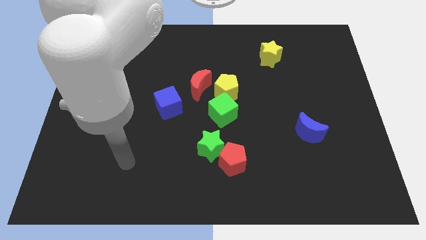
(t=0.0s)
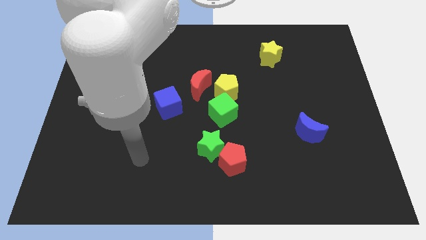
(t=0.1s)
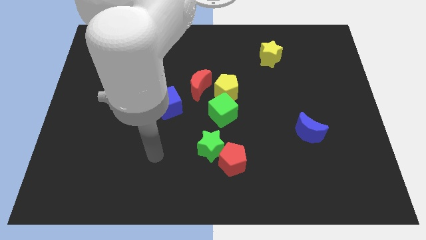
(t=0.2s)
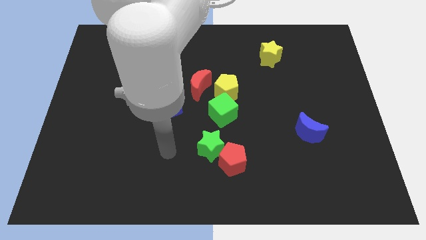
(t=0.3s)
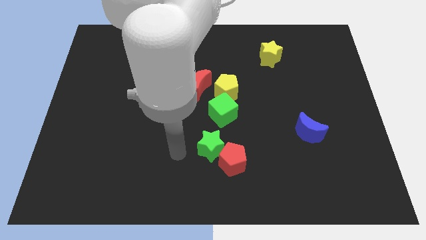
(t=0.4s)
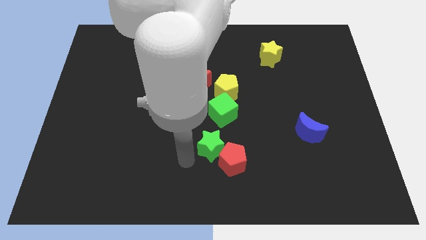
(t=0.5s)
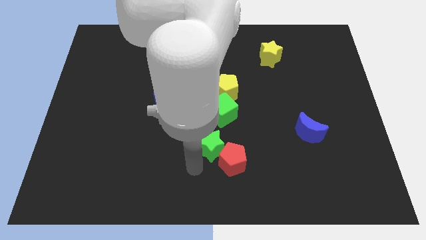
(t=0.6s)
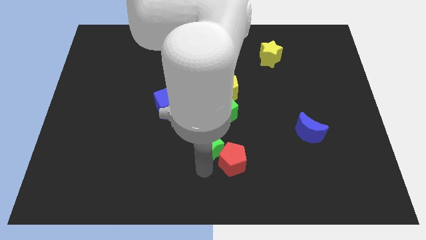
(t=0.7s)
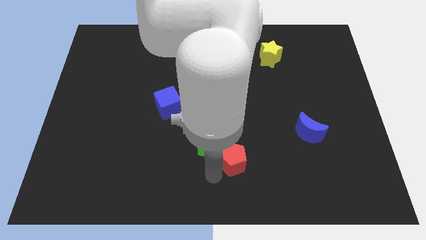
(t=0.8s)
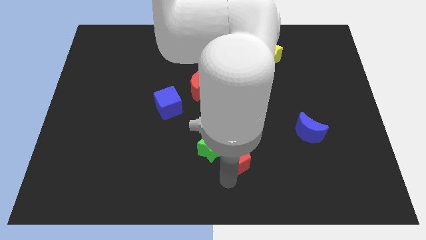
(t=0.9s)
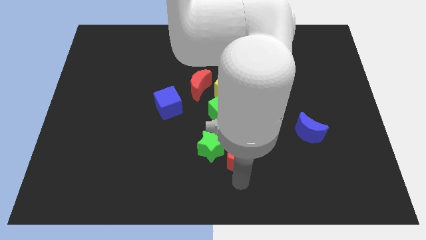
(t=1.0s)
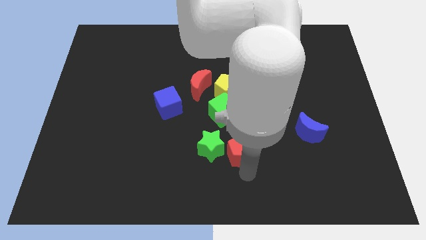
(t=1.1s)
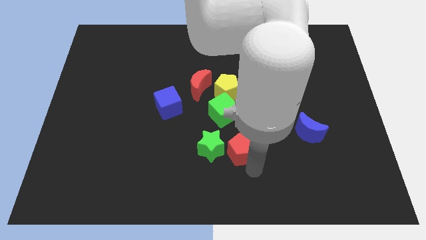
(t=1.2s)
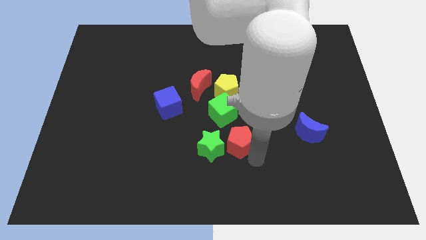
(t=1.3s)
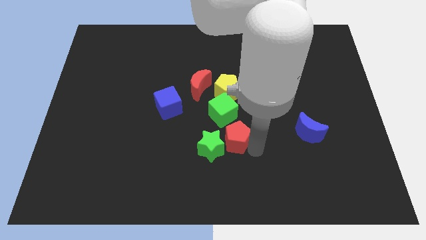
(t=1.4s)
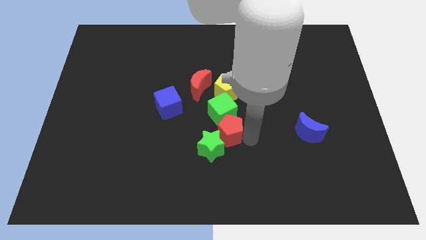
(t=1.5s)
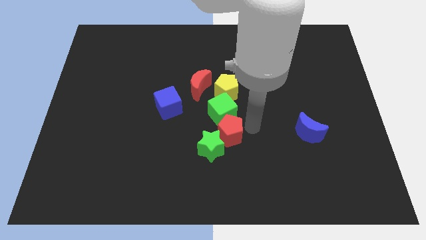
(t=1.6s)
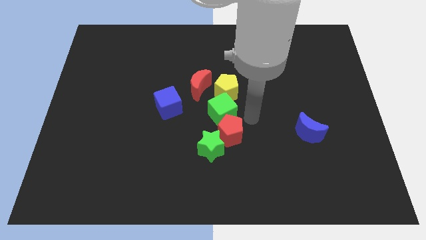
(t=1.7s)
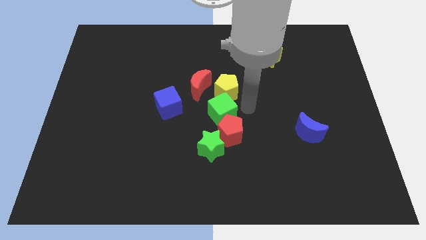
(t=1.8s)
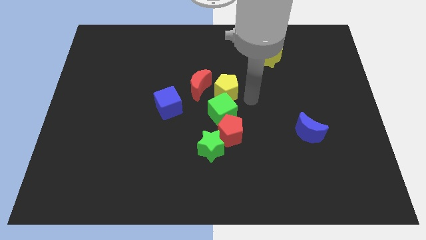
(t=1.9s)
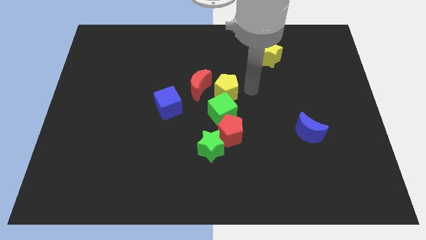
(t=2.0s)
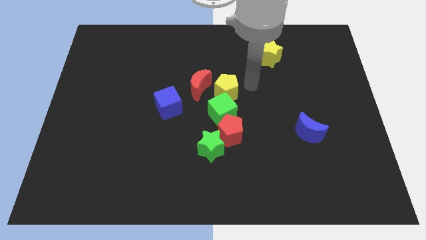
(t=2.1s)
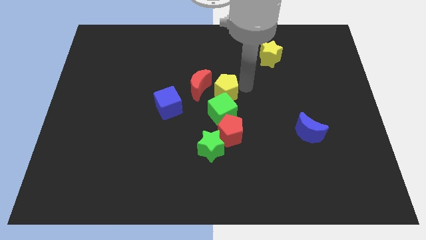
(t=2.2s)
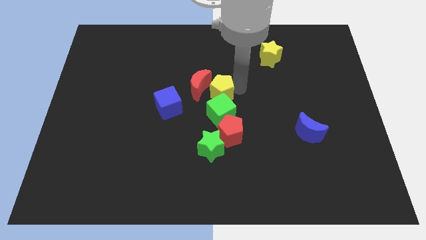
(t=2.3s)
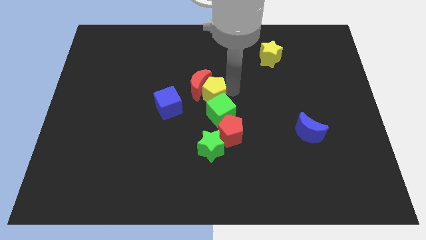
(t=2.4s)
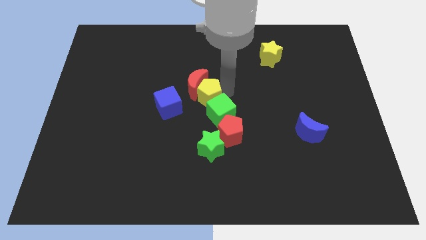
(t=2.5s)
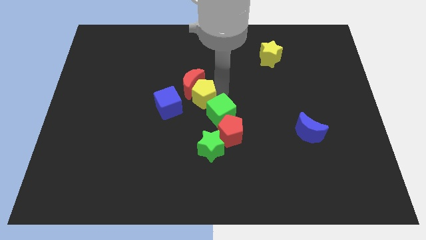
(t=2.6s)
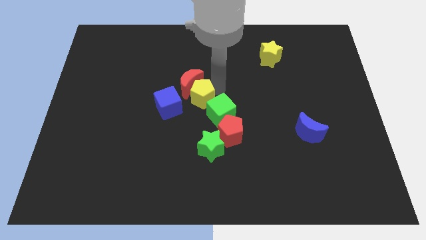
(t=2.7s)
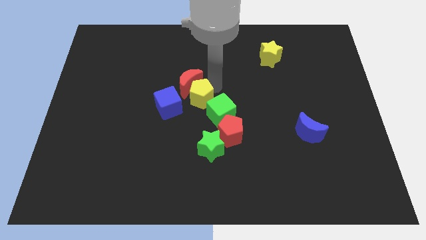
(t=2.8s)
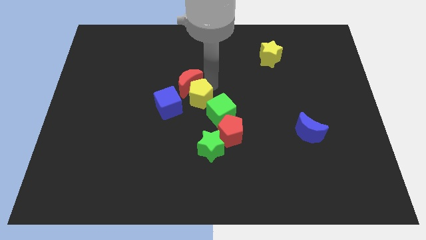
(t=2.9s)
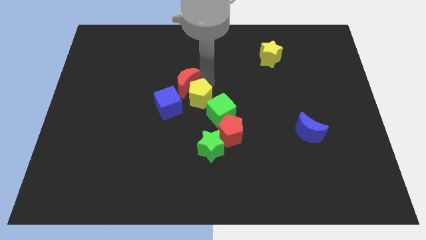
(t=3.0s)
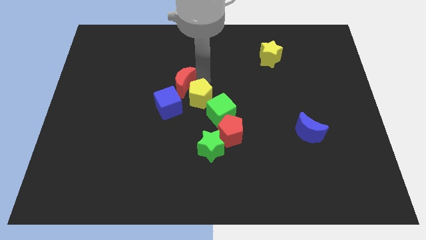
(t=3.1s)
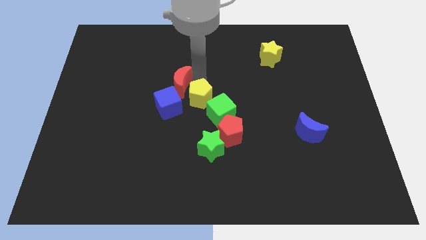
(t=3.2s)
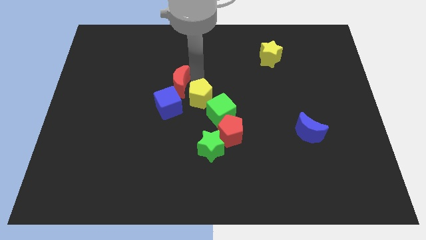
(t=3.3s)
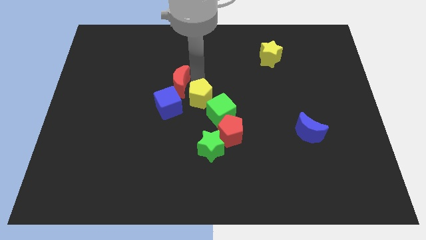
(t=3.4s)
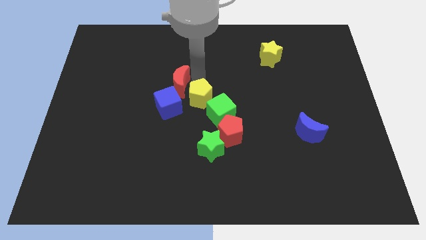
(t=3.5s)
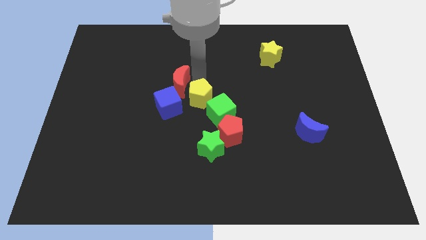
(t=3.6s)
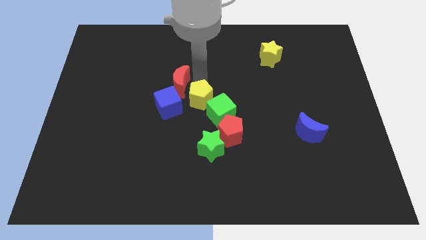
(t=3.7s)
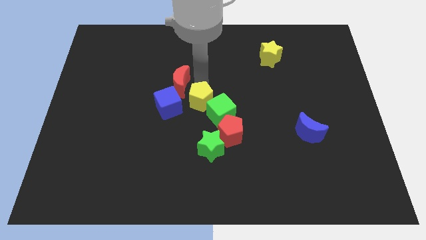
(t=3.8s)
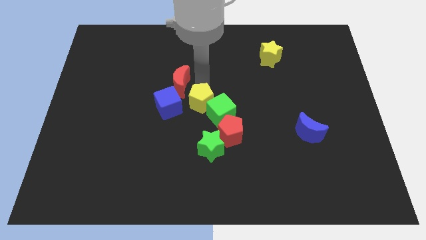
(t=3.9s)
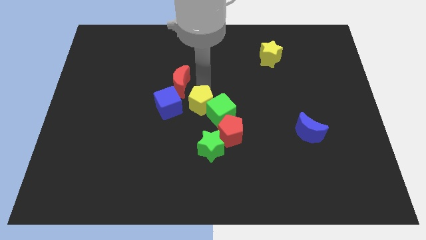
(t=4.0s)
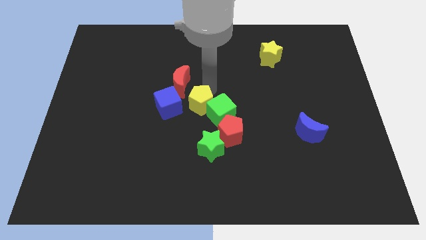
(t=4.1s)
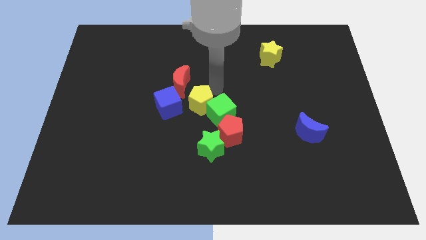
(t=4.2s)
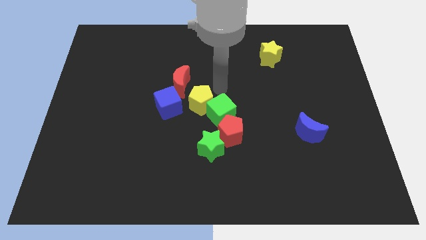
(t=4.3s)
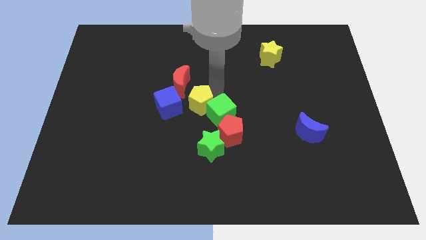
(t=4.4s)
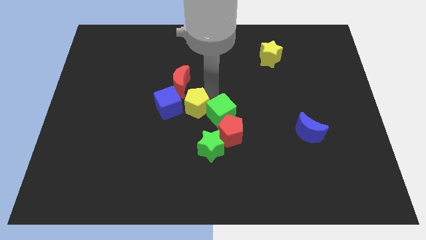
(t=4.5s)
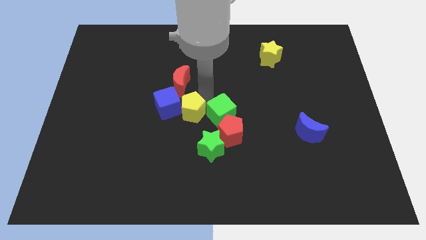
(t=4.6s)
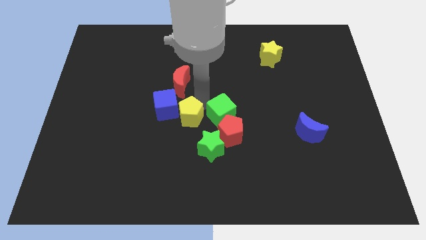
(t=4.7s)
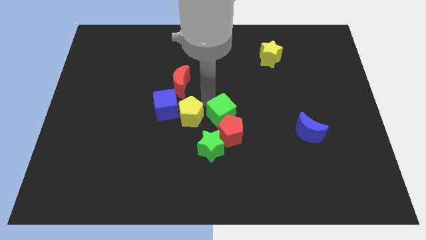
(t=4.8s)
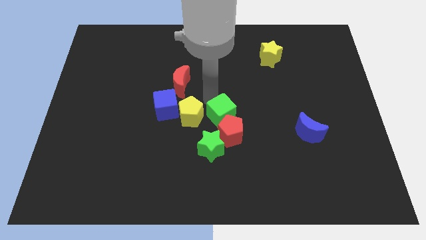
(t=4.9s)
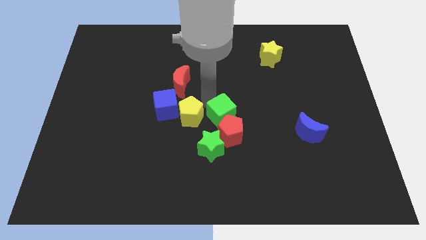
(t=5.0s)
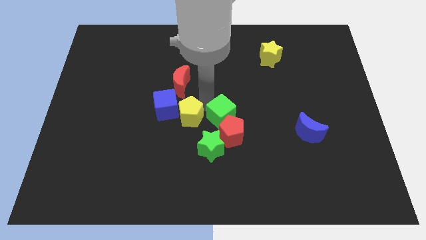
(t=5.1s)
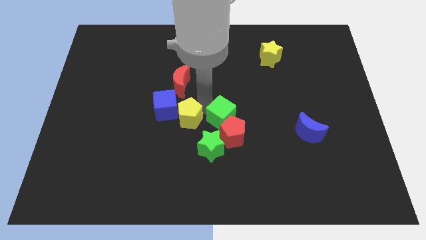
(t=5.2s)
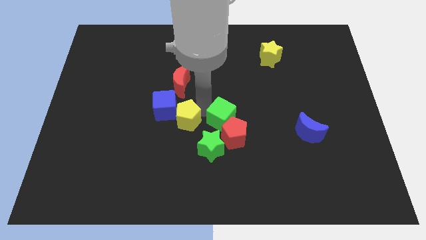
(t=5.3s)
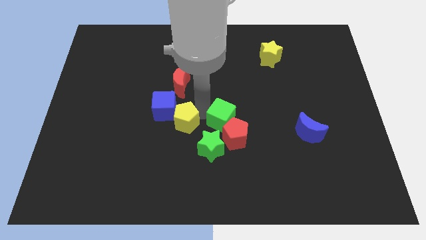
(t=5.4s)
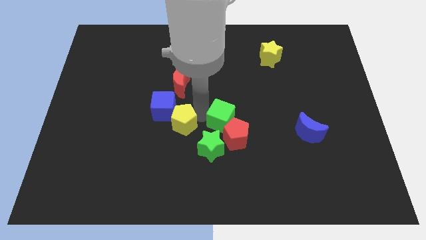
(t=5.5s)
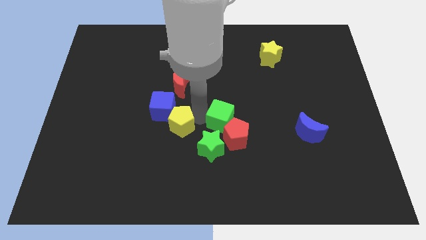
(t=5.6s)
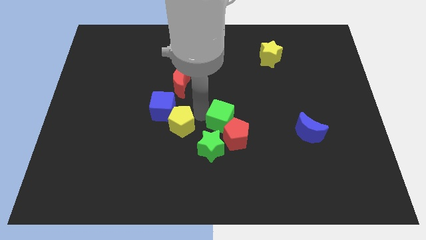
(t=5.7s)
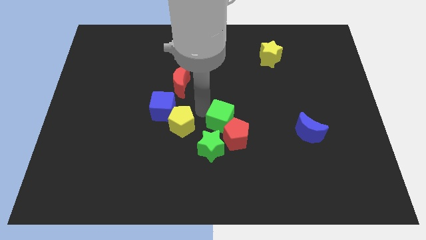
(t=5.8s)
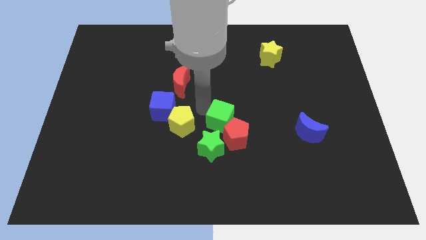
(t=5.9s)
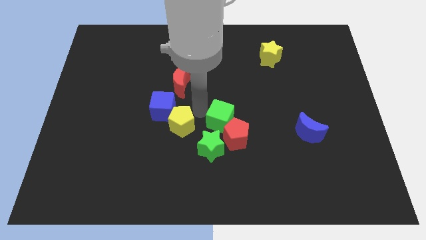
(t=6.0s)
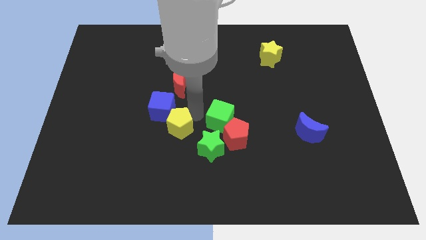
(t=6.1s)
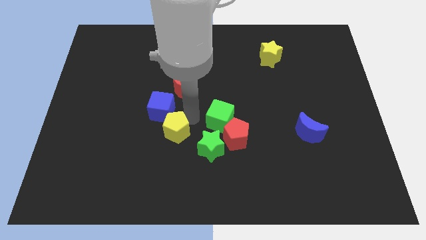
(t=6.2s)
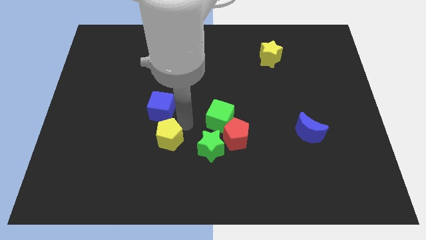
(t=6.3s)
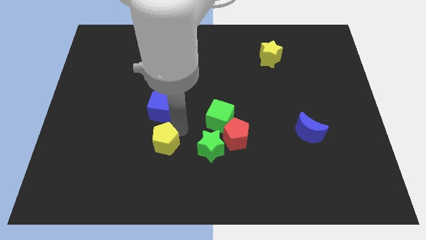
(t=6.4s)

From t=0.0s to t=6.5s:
slide the yellow pentagon downwards and then to the left

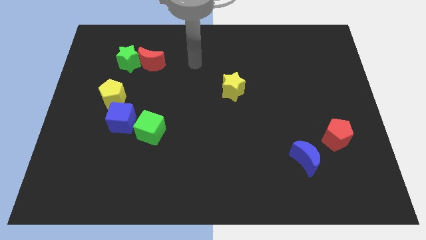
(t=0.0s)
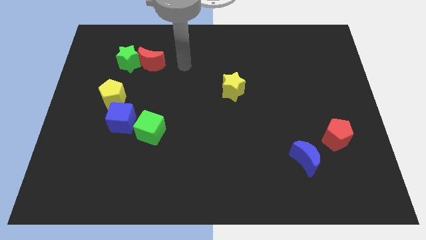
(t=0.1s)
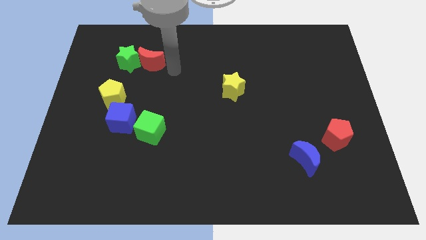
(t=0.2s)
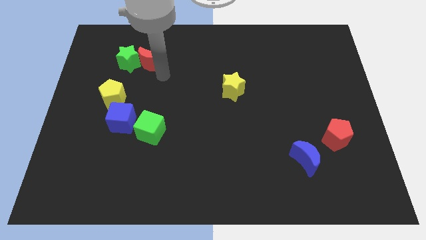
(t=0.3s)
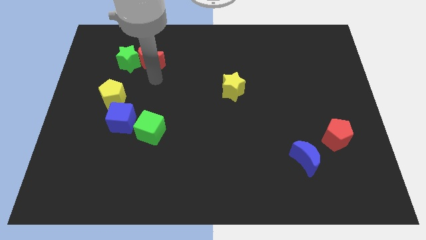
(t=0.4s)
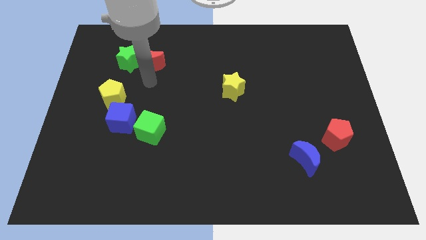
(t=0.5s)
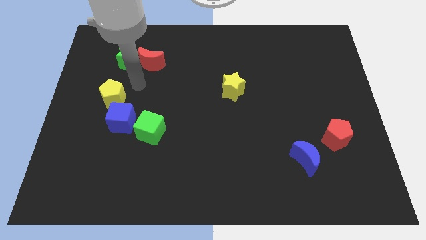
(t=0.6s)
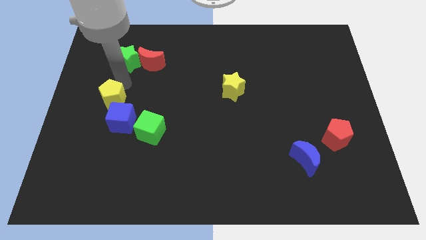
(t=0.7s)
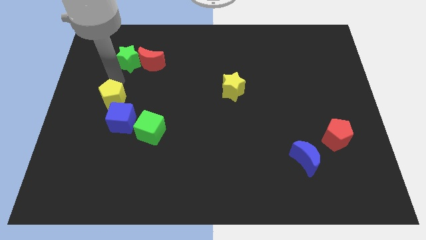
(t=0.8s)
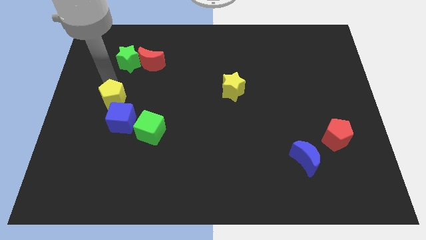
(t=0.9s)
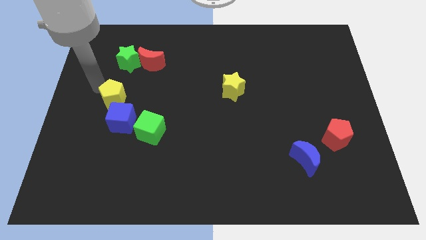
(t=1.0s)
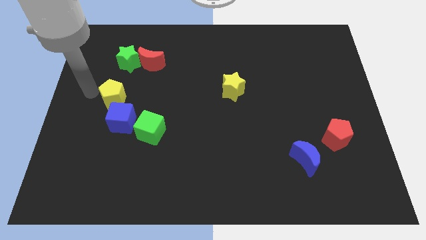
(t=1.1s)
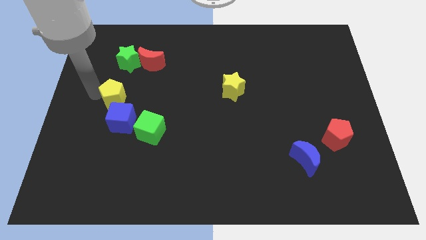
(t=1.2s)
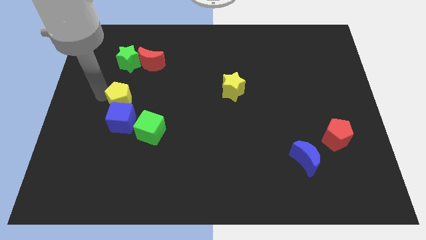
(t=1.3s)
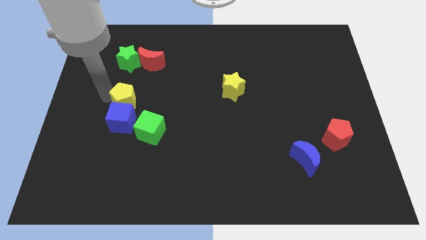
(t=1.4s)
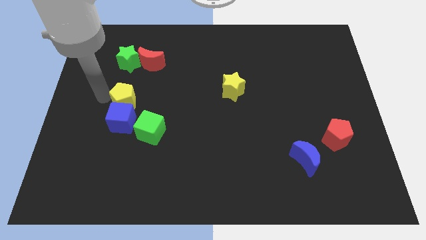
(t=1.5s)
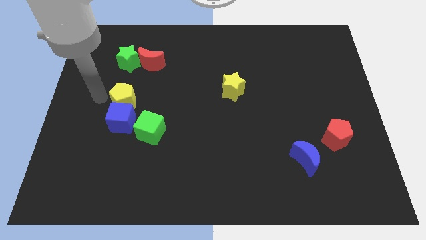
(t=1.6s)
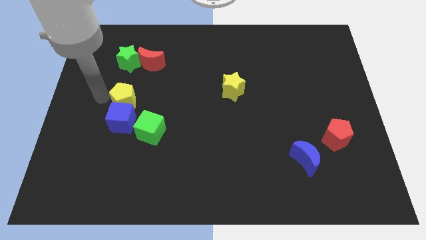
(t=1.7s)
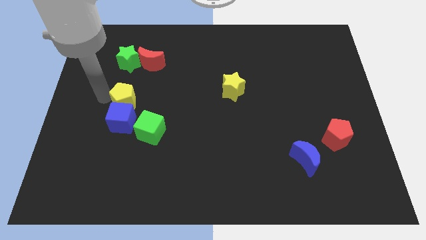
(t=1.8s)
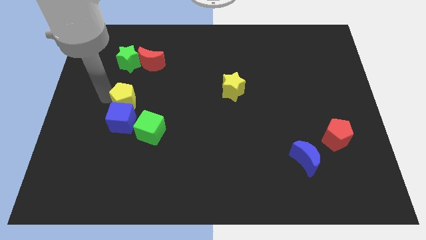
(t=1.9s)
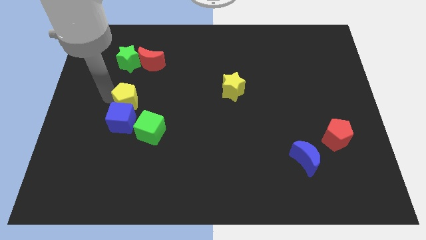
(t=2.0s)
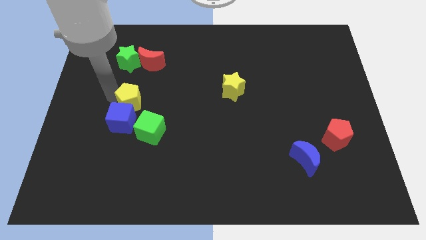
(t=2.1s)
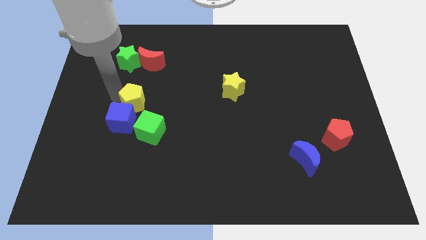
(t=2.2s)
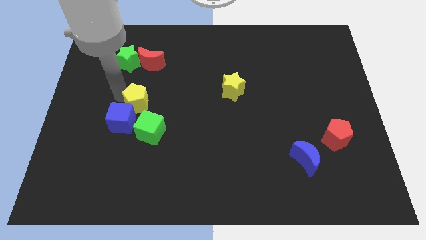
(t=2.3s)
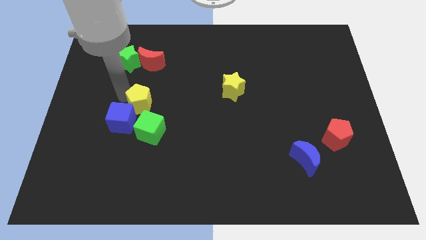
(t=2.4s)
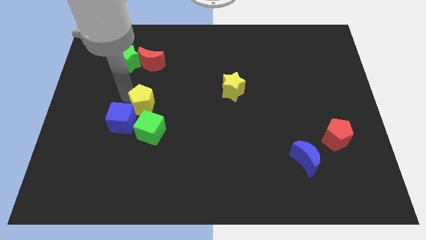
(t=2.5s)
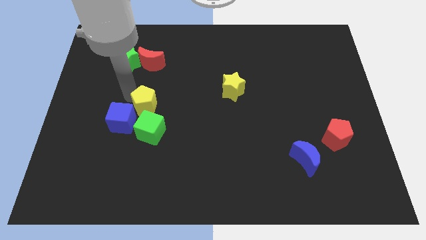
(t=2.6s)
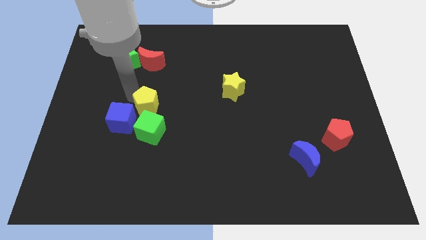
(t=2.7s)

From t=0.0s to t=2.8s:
push the yellow pentagon downwards and then to the right somewhat
